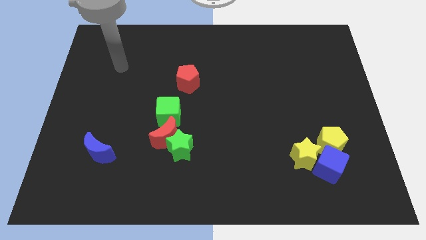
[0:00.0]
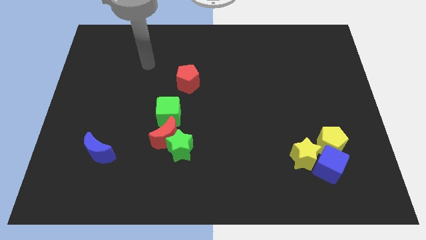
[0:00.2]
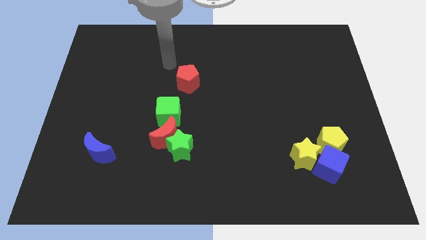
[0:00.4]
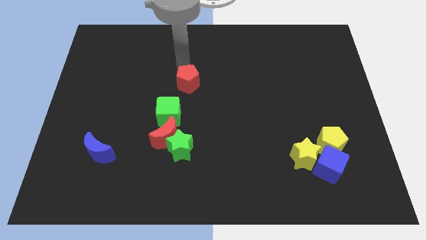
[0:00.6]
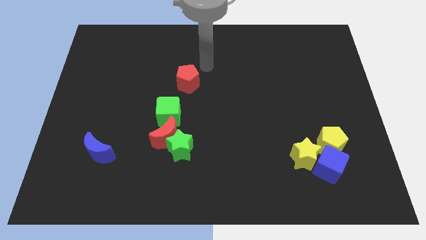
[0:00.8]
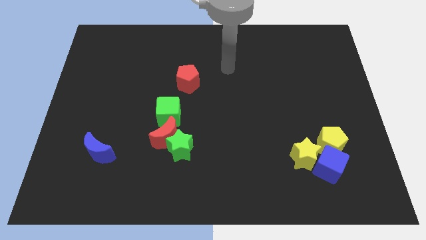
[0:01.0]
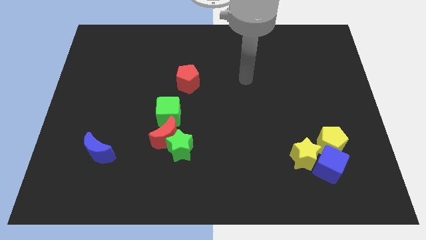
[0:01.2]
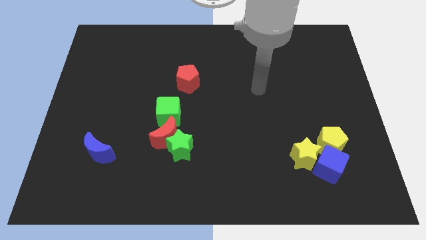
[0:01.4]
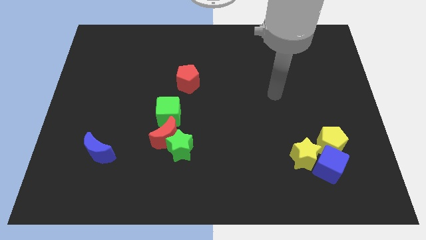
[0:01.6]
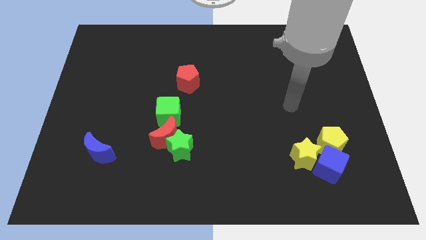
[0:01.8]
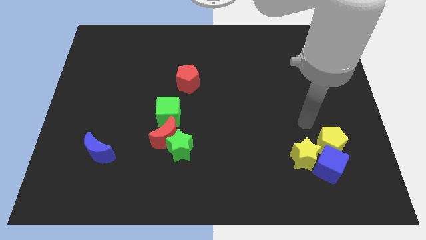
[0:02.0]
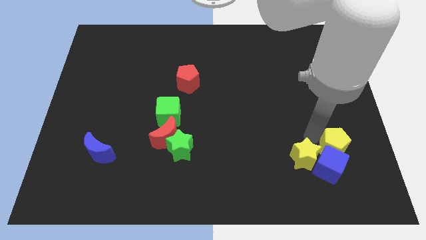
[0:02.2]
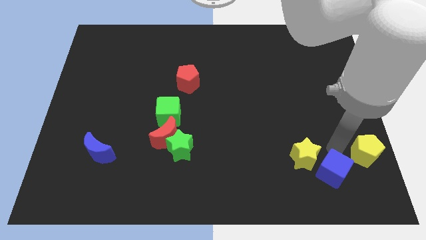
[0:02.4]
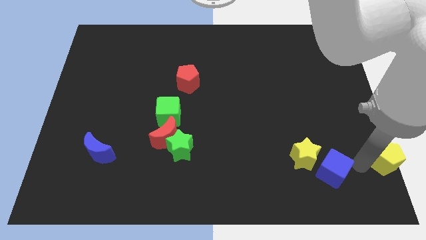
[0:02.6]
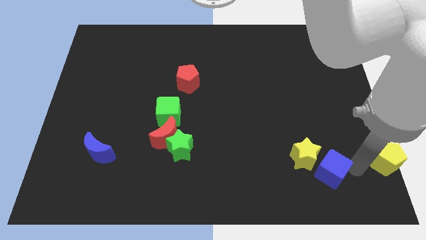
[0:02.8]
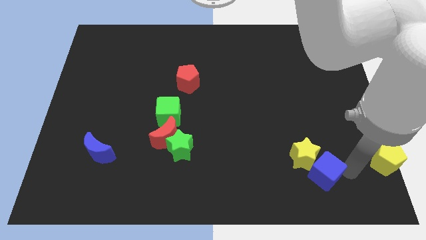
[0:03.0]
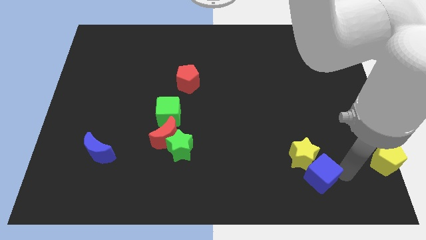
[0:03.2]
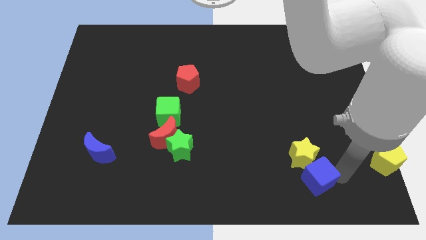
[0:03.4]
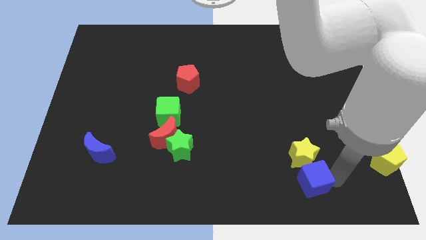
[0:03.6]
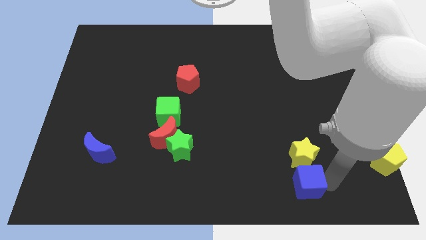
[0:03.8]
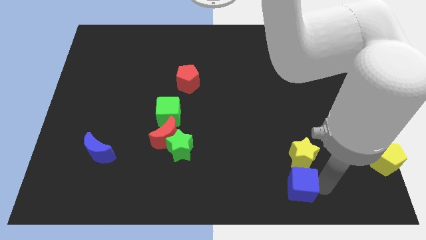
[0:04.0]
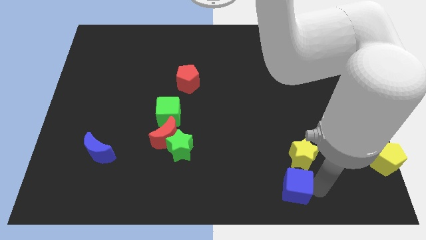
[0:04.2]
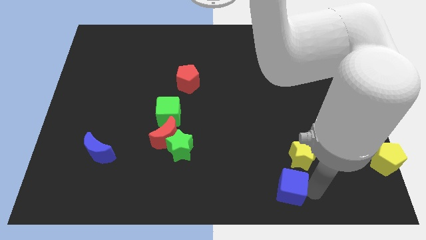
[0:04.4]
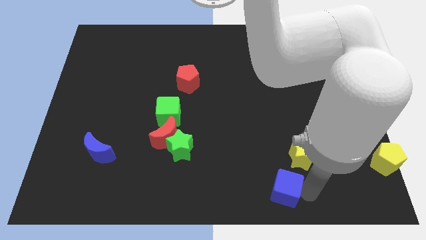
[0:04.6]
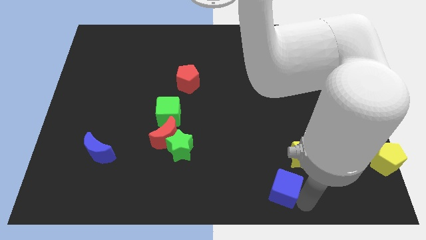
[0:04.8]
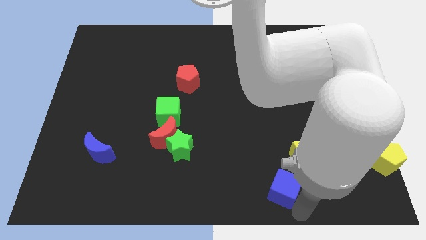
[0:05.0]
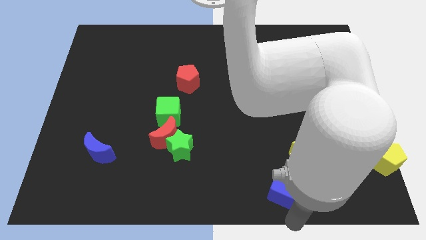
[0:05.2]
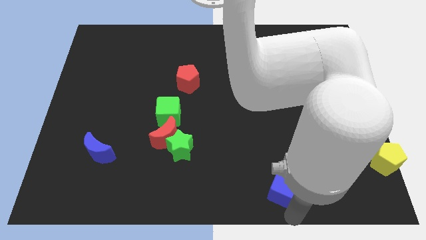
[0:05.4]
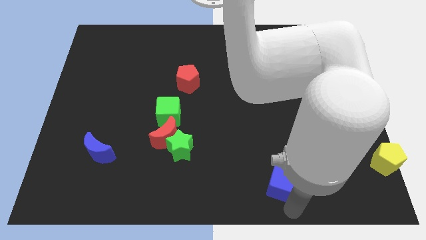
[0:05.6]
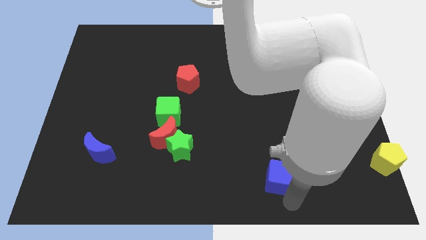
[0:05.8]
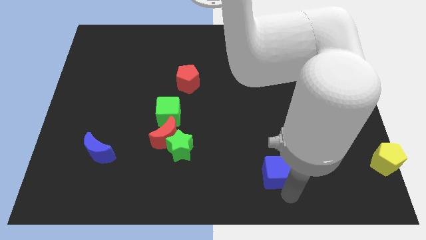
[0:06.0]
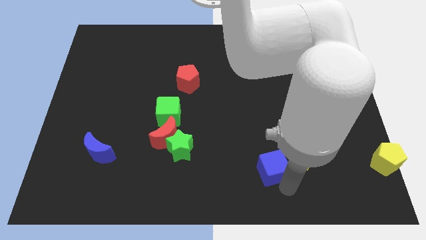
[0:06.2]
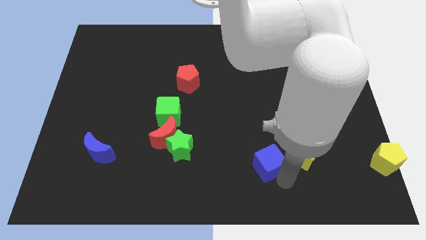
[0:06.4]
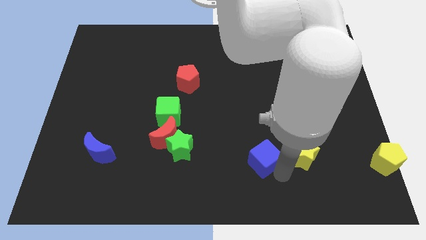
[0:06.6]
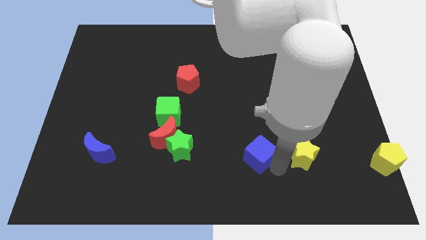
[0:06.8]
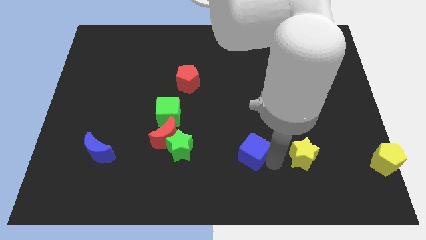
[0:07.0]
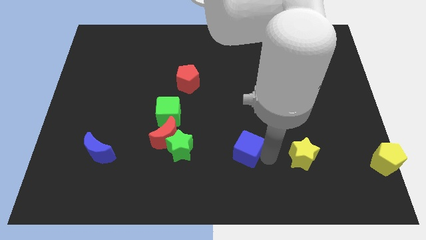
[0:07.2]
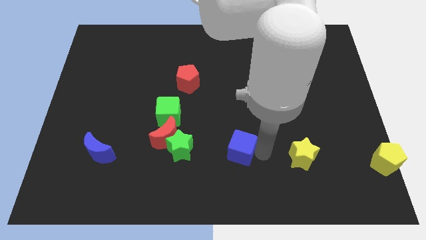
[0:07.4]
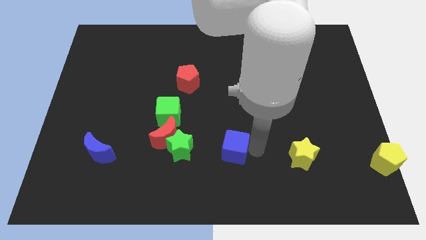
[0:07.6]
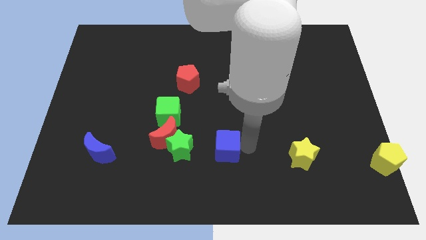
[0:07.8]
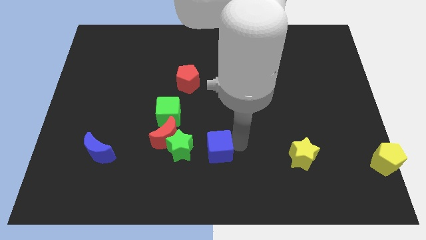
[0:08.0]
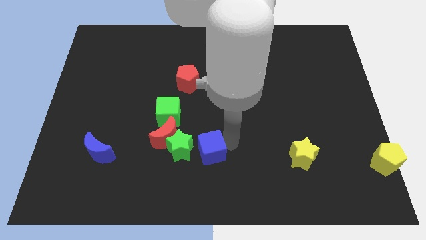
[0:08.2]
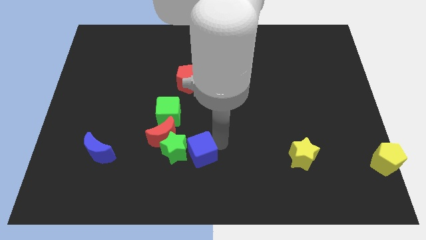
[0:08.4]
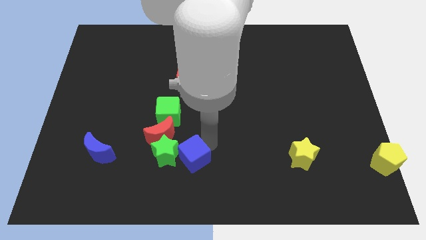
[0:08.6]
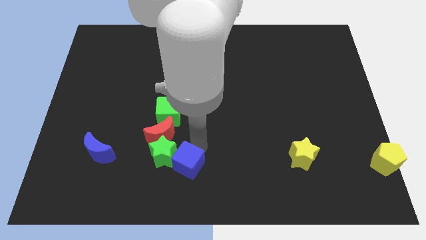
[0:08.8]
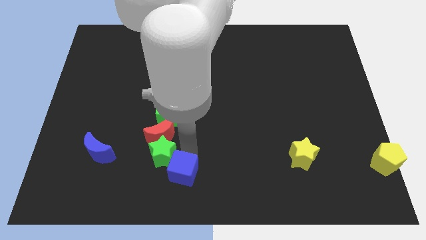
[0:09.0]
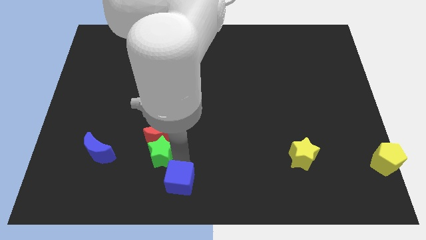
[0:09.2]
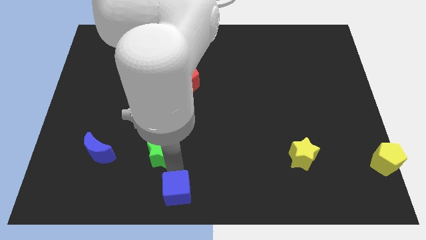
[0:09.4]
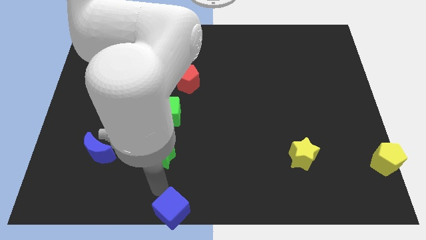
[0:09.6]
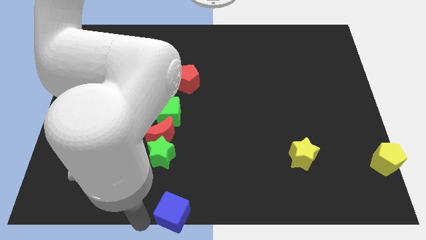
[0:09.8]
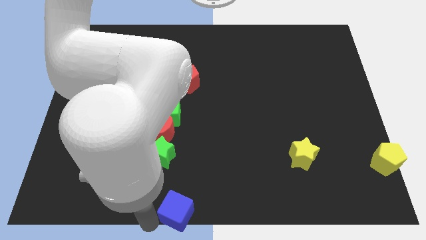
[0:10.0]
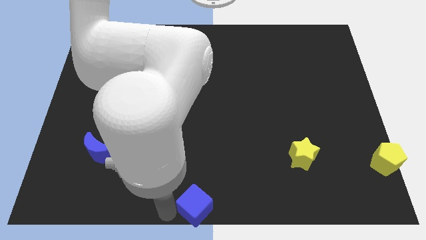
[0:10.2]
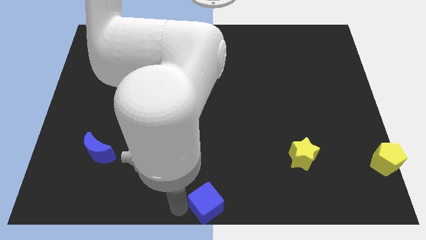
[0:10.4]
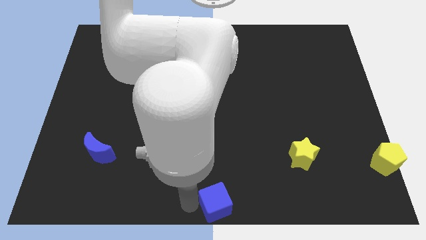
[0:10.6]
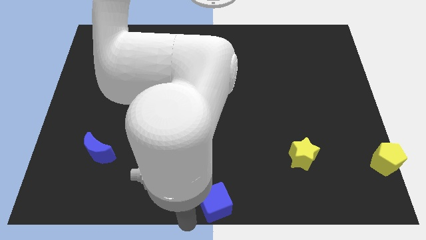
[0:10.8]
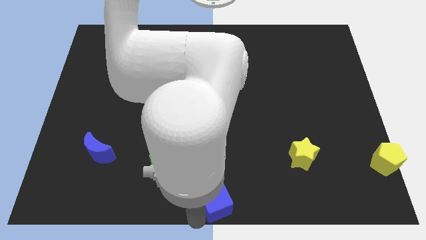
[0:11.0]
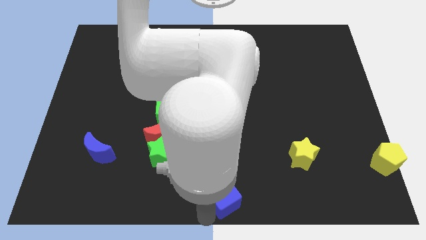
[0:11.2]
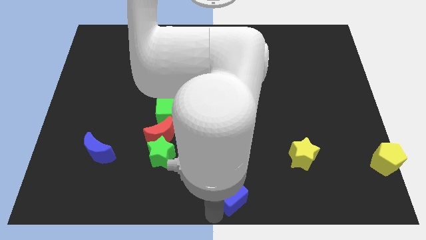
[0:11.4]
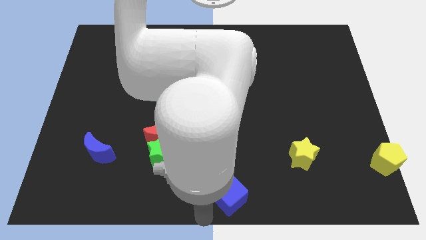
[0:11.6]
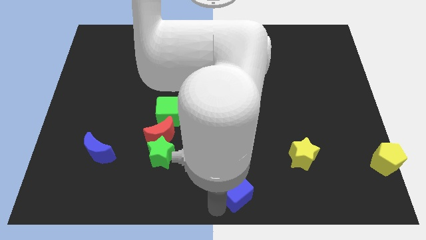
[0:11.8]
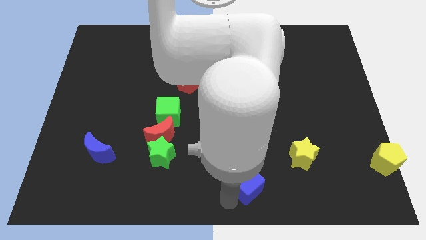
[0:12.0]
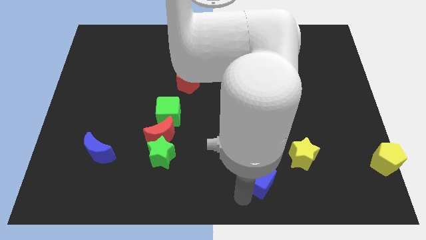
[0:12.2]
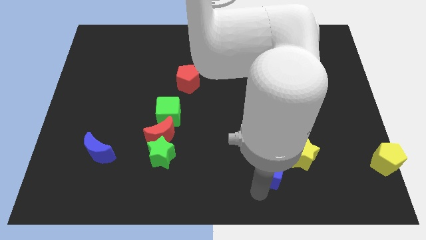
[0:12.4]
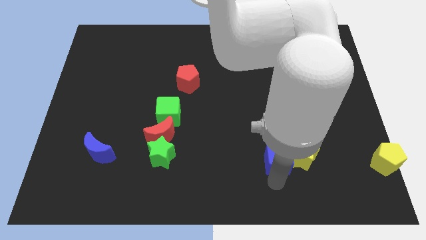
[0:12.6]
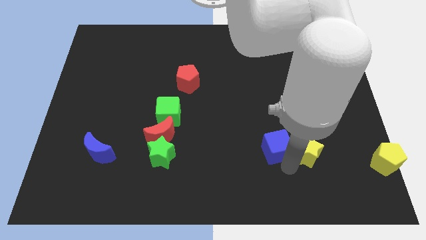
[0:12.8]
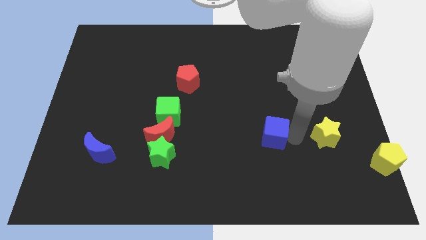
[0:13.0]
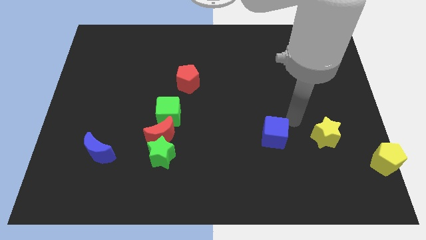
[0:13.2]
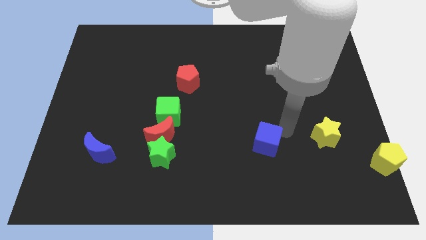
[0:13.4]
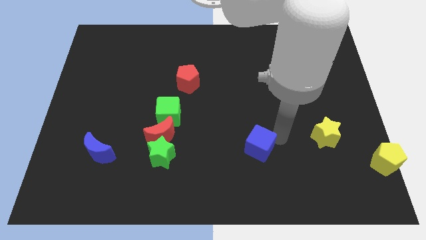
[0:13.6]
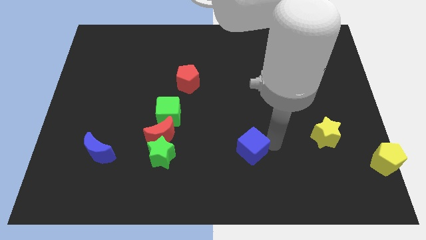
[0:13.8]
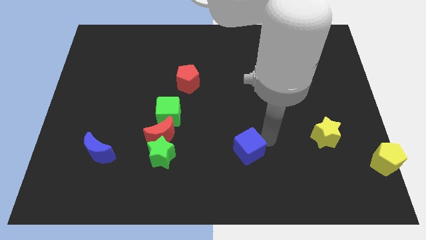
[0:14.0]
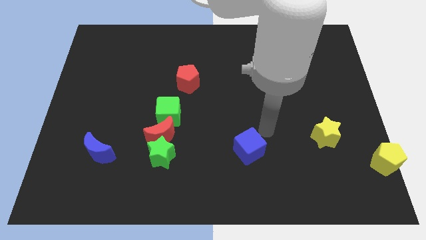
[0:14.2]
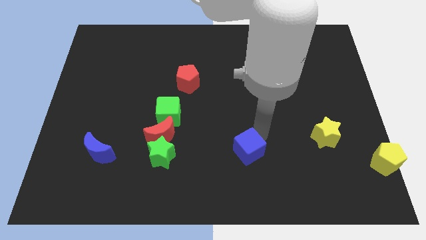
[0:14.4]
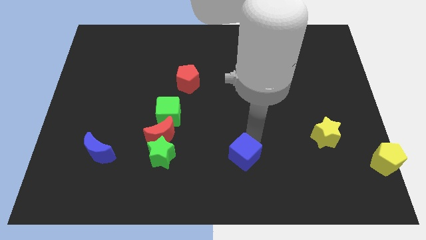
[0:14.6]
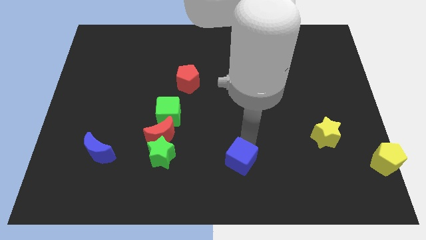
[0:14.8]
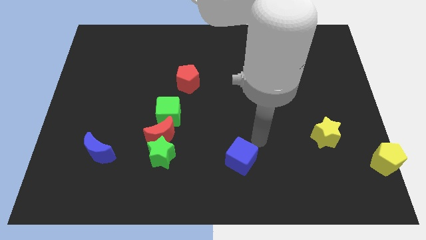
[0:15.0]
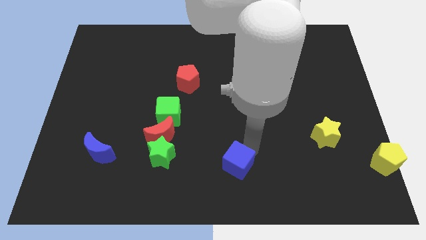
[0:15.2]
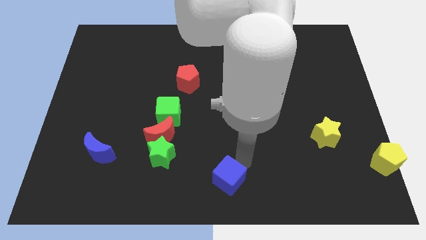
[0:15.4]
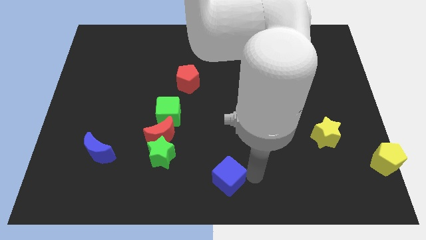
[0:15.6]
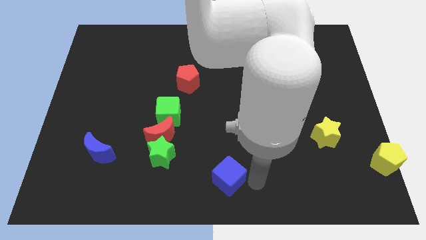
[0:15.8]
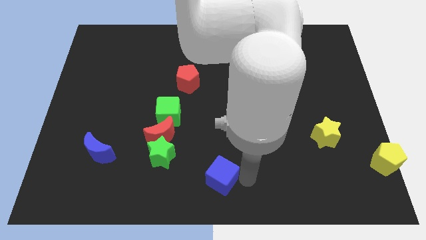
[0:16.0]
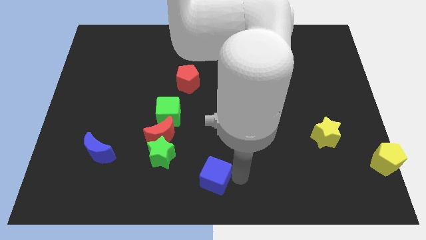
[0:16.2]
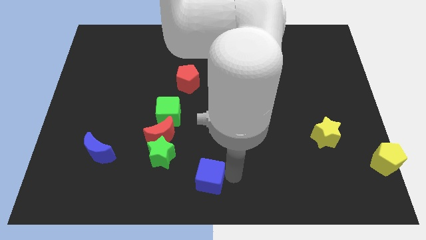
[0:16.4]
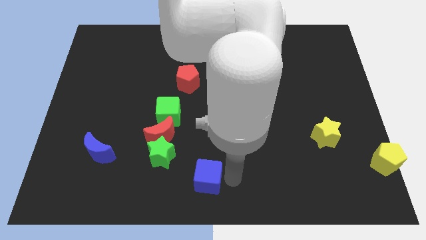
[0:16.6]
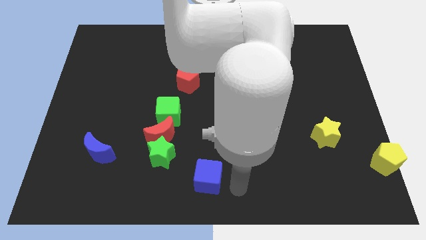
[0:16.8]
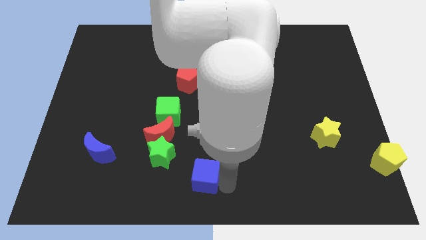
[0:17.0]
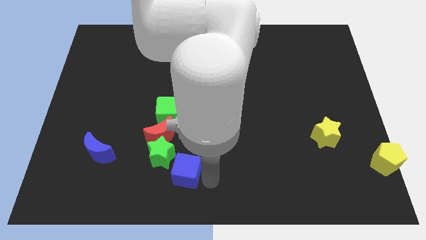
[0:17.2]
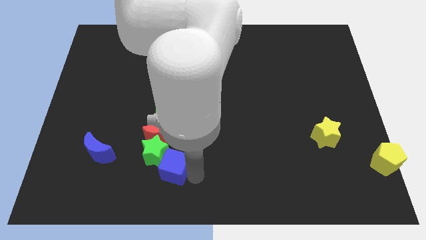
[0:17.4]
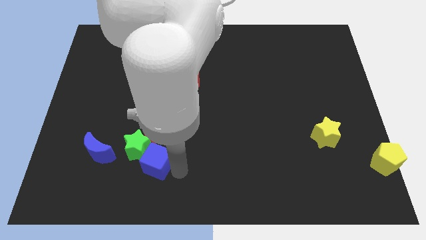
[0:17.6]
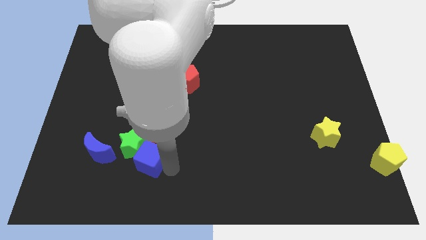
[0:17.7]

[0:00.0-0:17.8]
move the blue cube to the bottom left of the red moon
